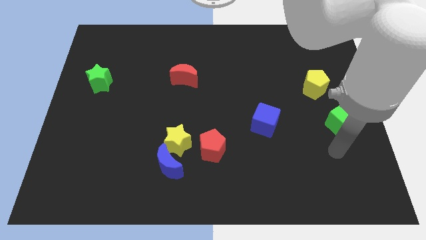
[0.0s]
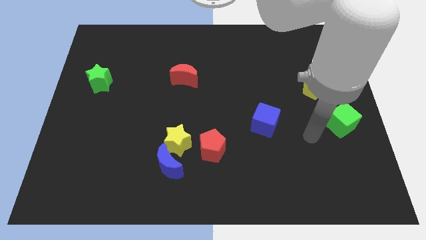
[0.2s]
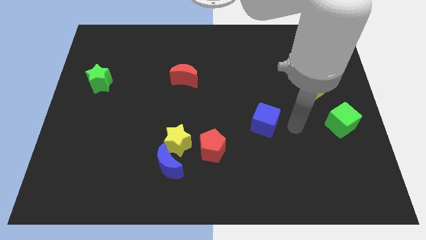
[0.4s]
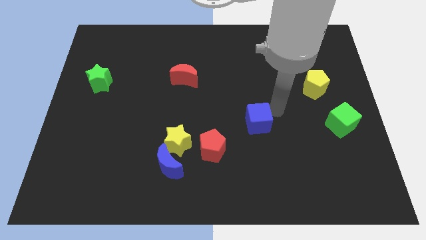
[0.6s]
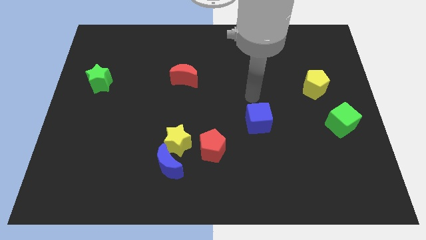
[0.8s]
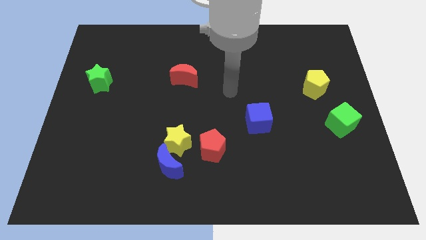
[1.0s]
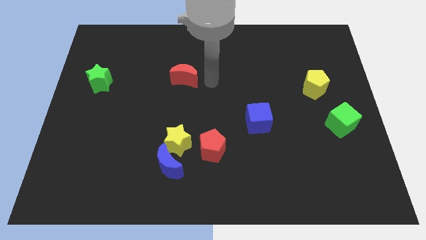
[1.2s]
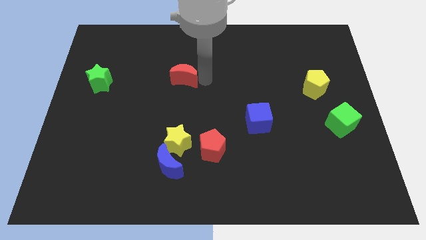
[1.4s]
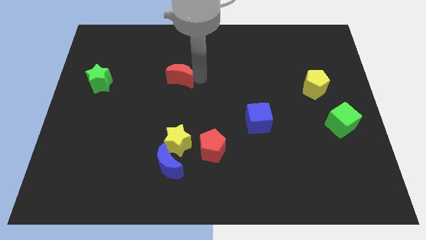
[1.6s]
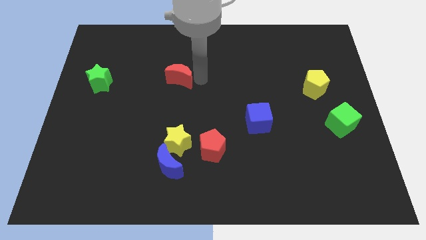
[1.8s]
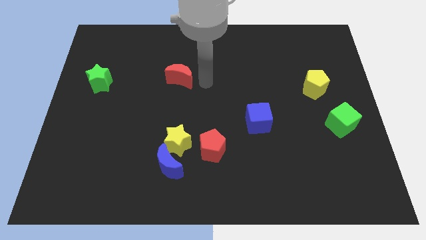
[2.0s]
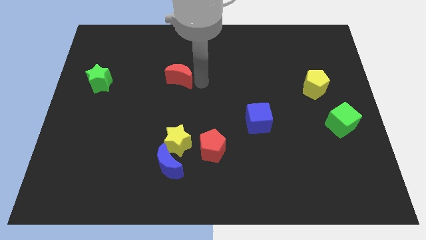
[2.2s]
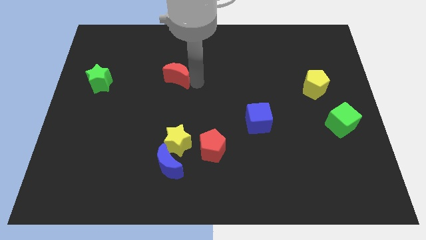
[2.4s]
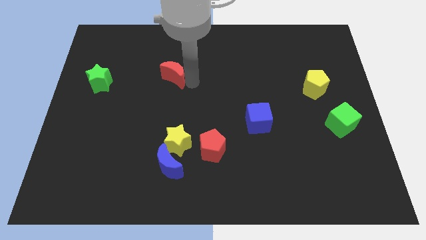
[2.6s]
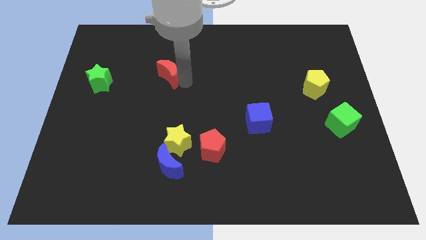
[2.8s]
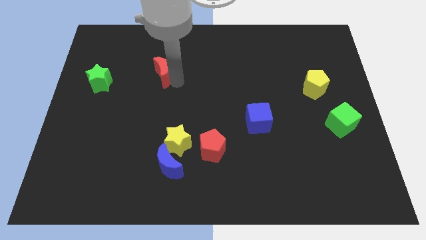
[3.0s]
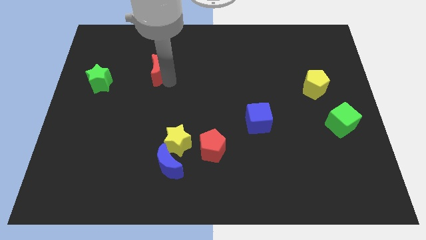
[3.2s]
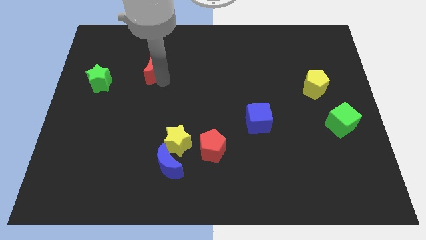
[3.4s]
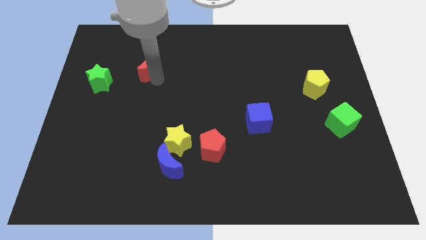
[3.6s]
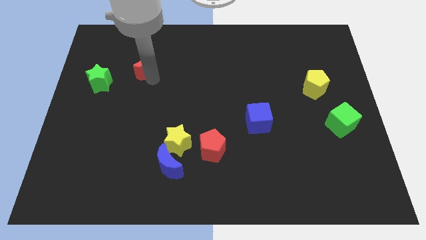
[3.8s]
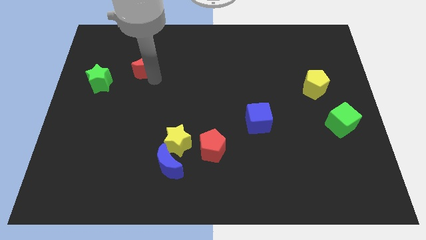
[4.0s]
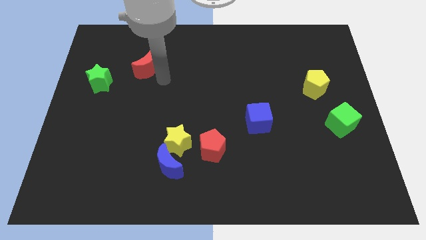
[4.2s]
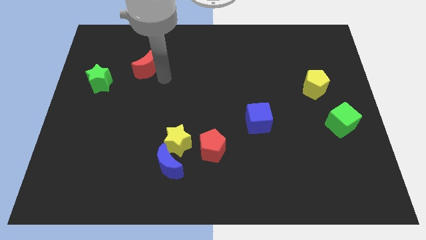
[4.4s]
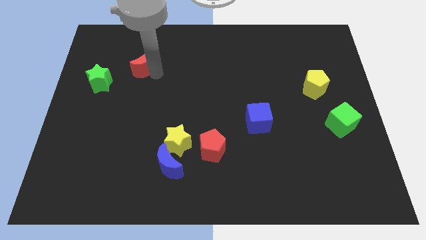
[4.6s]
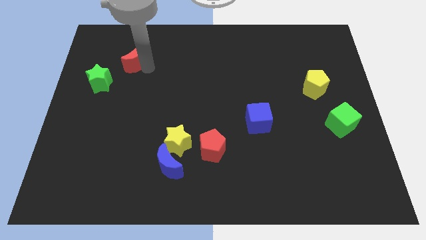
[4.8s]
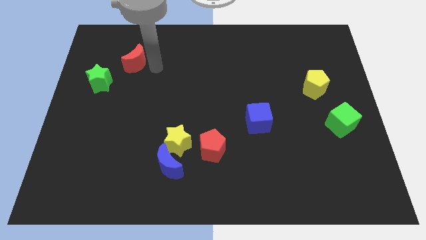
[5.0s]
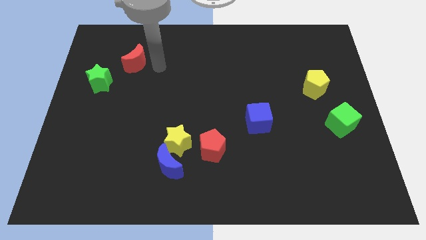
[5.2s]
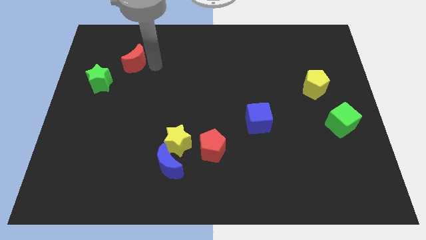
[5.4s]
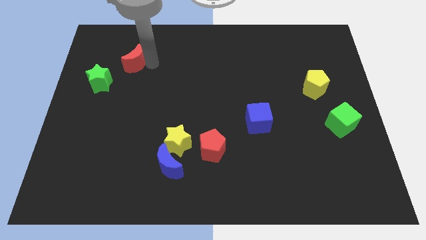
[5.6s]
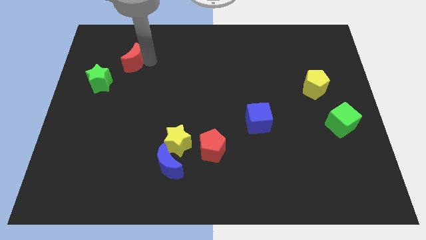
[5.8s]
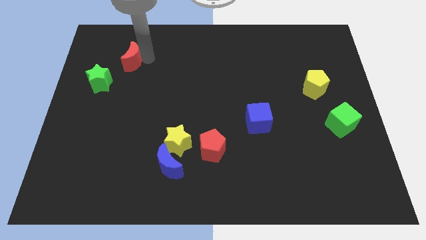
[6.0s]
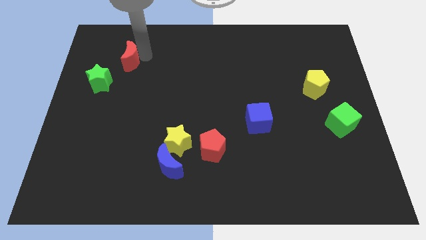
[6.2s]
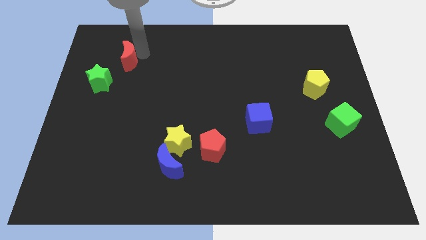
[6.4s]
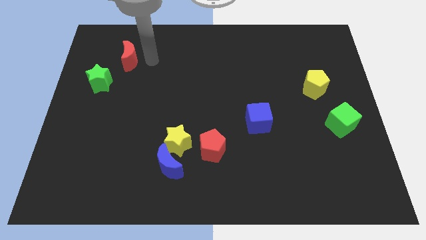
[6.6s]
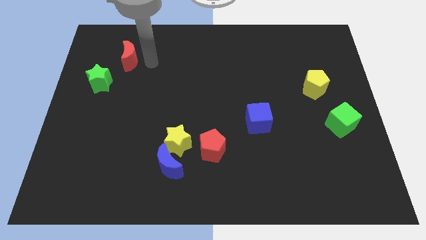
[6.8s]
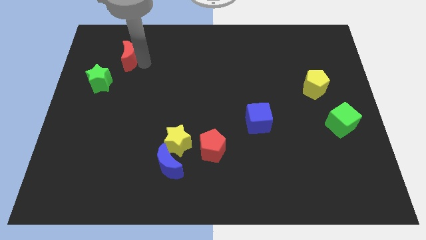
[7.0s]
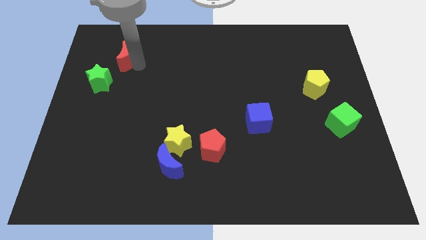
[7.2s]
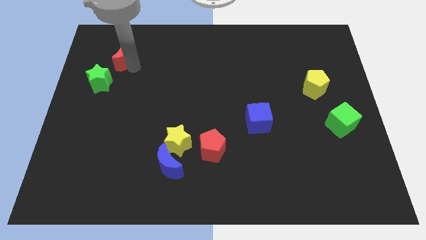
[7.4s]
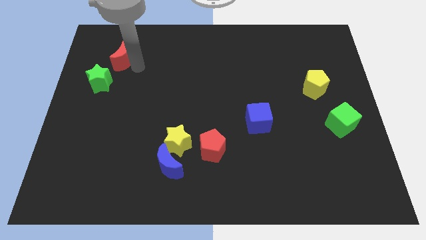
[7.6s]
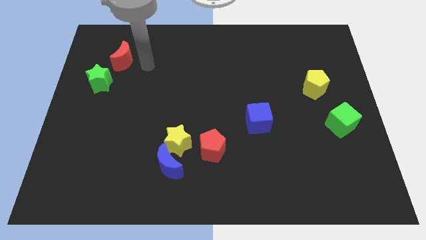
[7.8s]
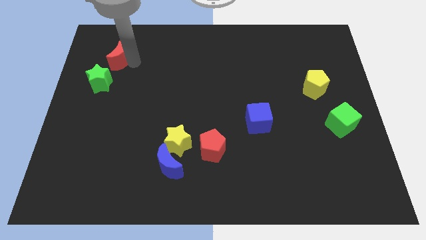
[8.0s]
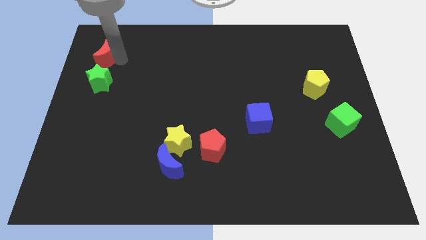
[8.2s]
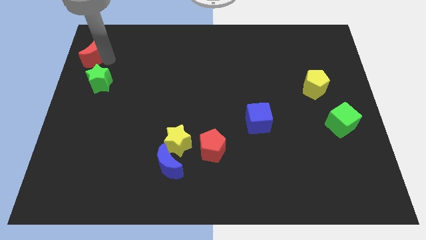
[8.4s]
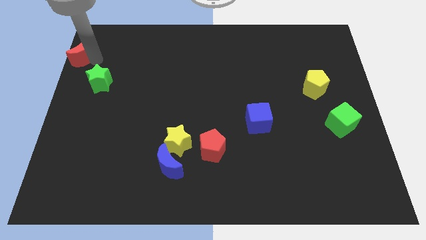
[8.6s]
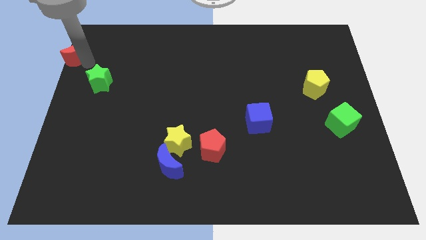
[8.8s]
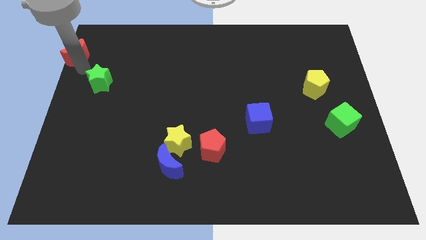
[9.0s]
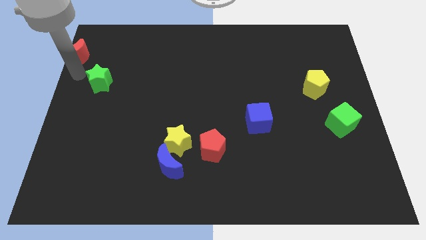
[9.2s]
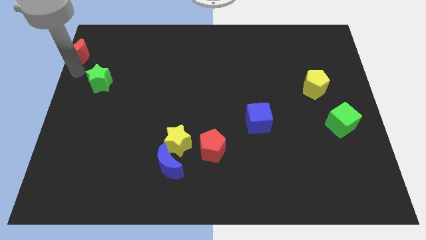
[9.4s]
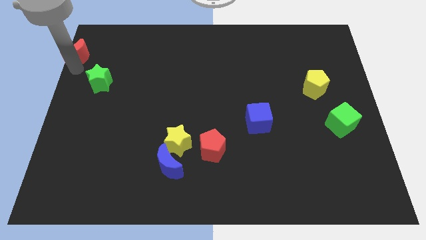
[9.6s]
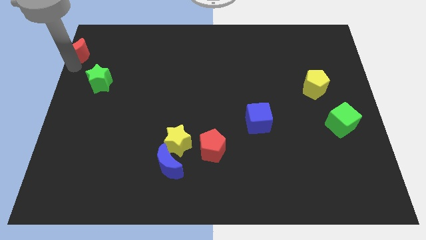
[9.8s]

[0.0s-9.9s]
push the red moon to the upper left corner
